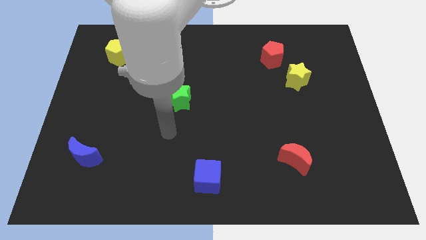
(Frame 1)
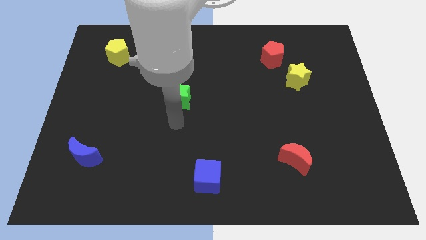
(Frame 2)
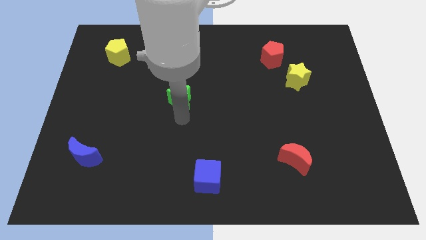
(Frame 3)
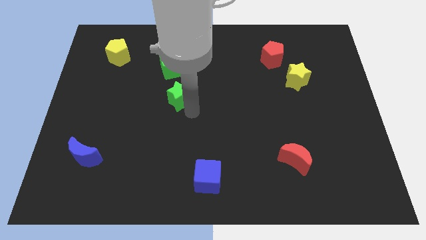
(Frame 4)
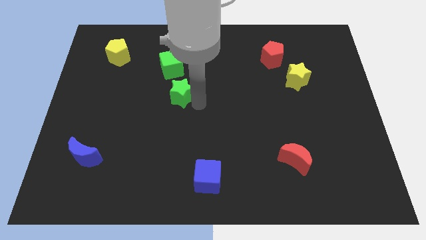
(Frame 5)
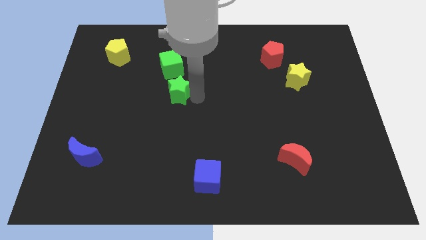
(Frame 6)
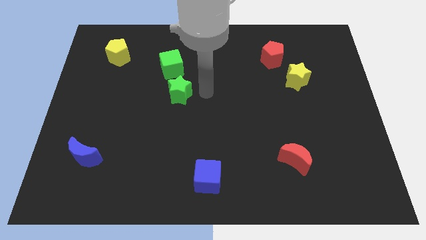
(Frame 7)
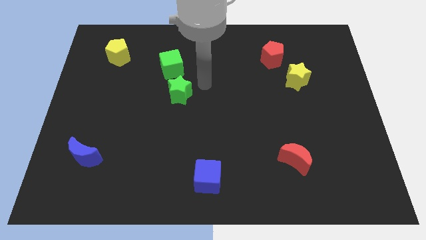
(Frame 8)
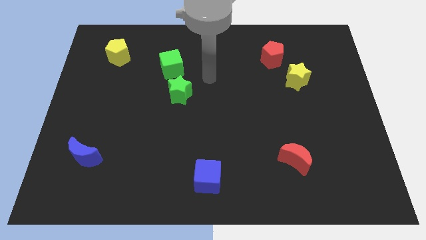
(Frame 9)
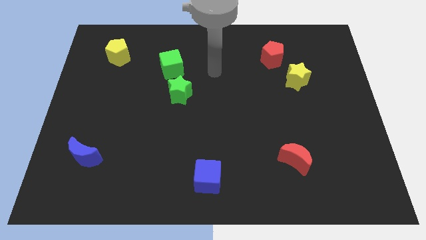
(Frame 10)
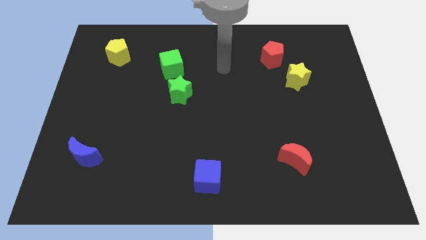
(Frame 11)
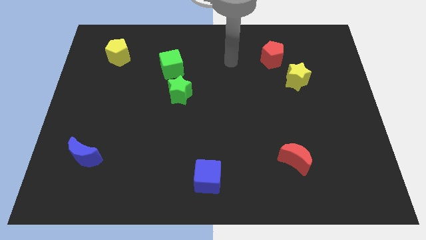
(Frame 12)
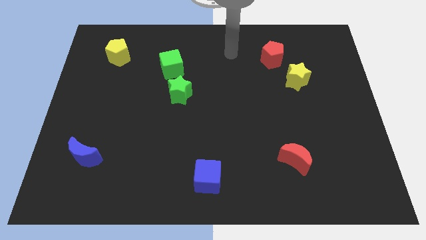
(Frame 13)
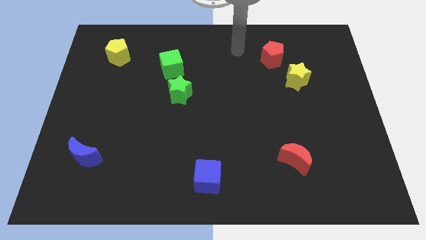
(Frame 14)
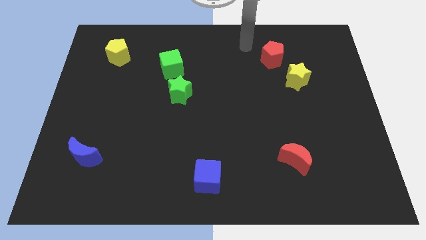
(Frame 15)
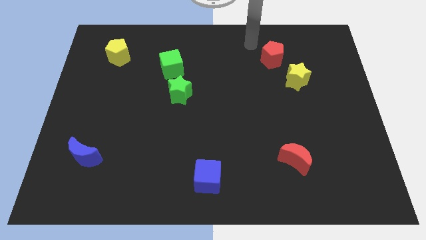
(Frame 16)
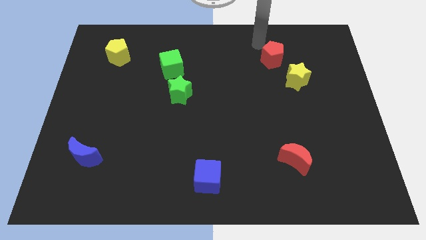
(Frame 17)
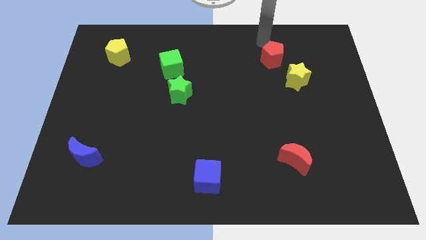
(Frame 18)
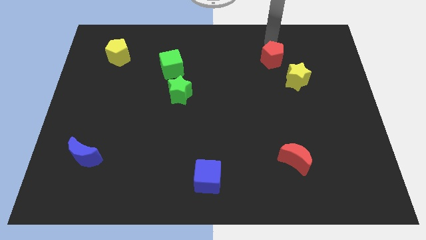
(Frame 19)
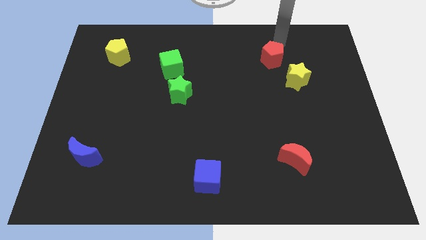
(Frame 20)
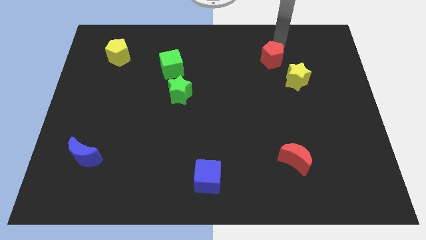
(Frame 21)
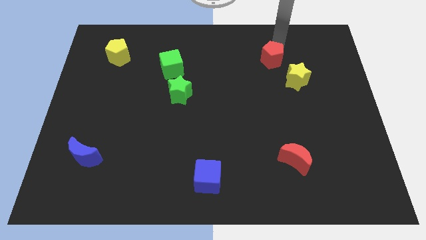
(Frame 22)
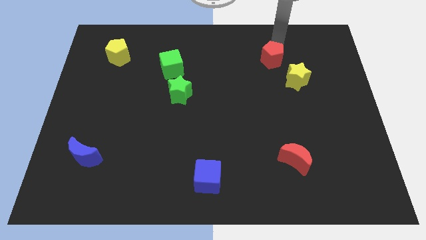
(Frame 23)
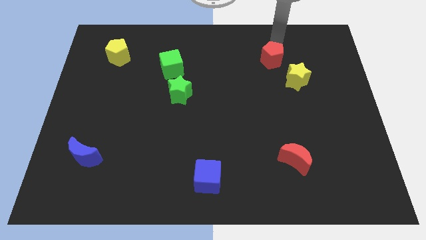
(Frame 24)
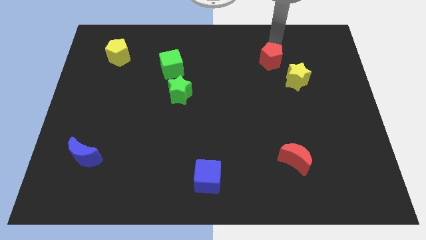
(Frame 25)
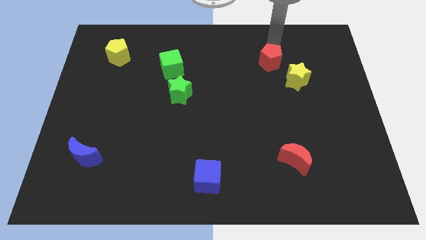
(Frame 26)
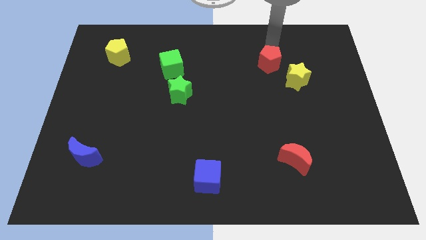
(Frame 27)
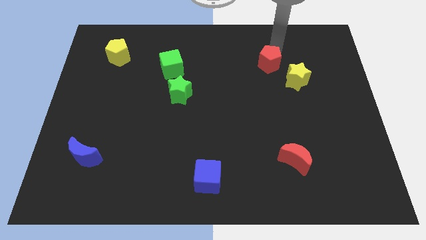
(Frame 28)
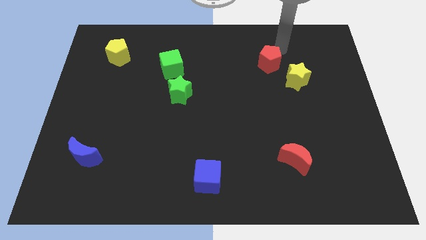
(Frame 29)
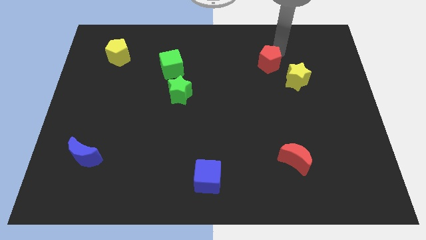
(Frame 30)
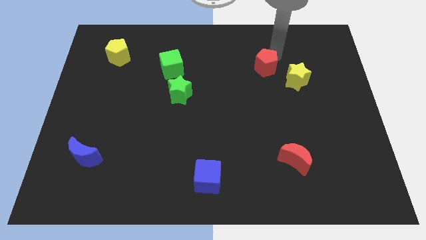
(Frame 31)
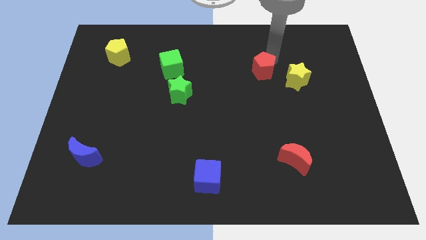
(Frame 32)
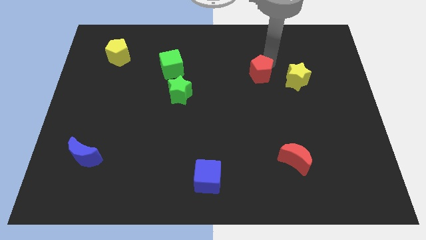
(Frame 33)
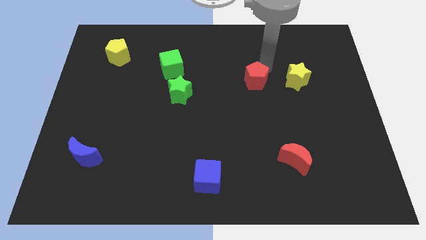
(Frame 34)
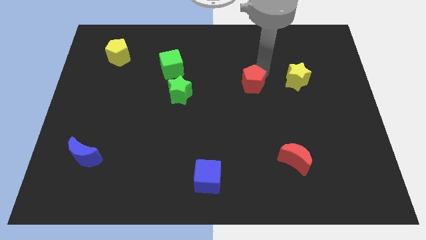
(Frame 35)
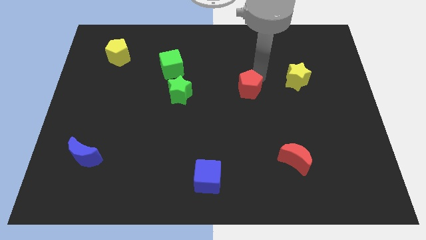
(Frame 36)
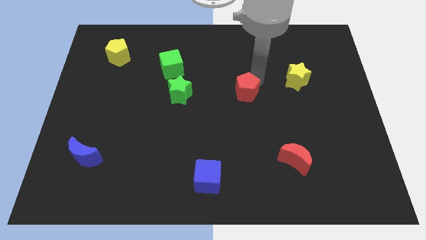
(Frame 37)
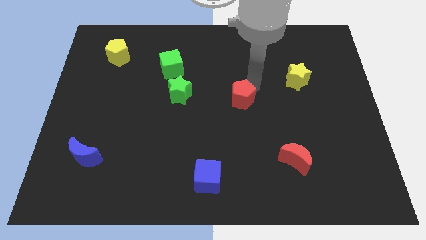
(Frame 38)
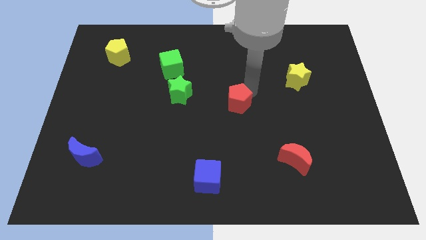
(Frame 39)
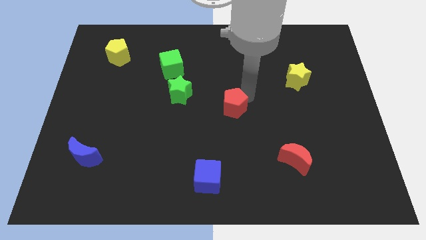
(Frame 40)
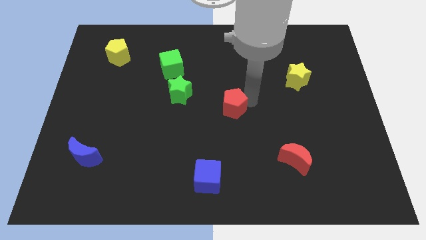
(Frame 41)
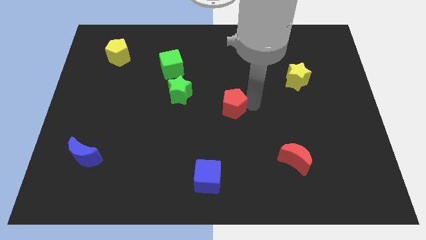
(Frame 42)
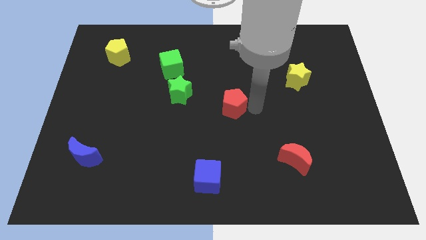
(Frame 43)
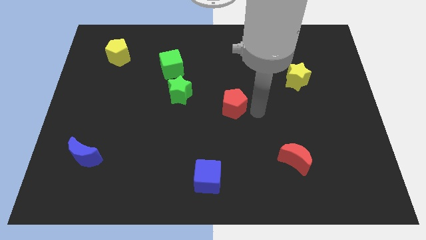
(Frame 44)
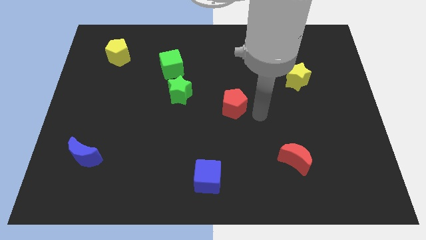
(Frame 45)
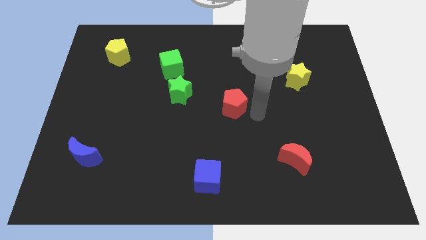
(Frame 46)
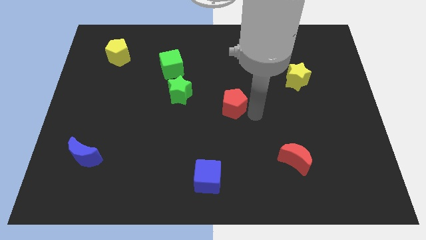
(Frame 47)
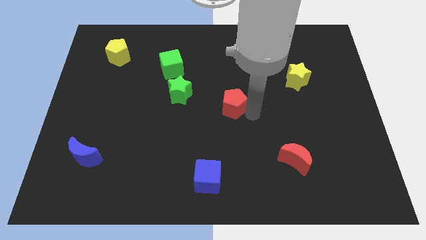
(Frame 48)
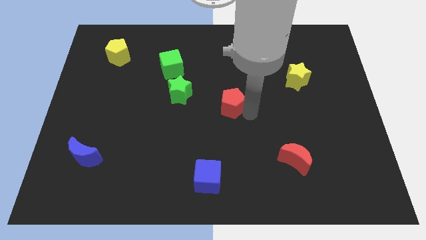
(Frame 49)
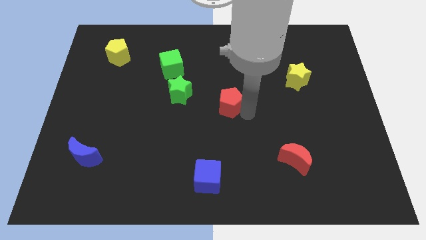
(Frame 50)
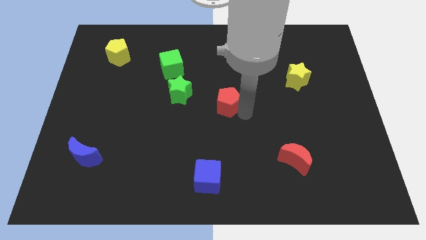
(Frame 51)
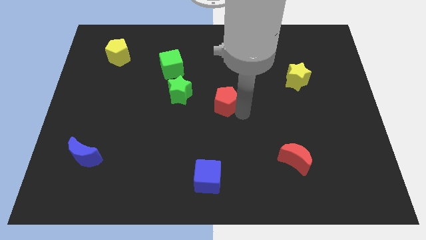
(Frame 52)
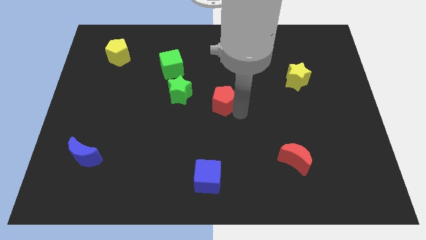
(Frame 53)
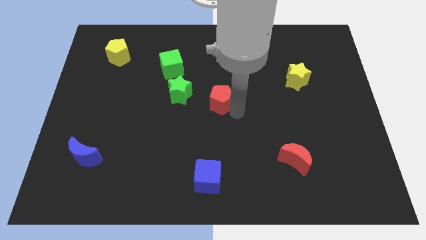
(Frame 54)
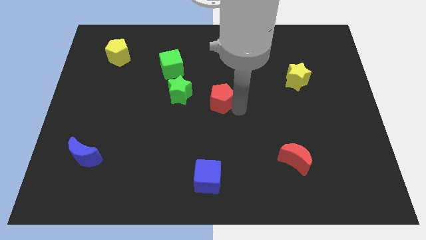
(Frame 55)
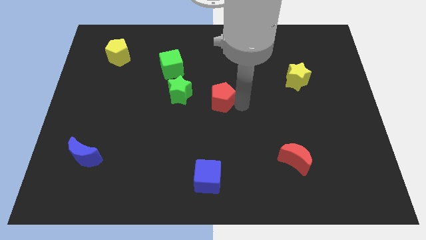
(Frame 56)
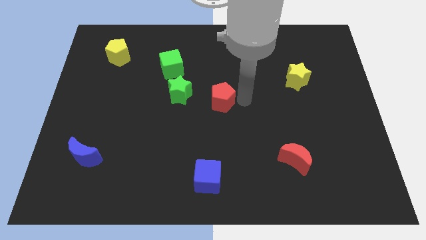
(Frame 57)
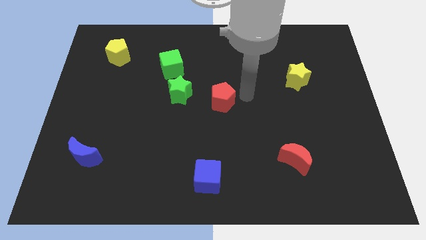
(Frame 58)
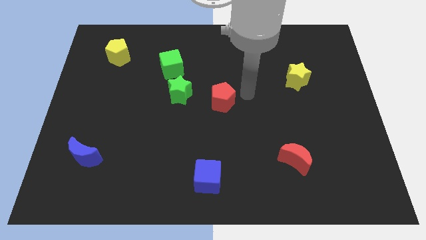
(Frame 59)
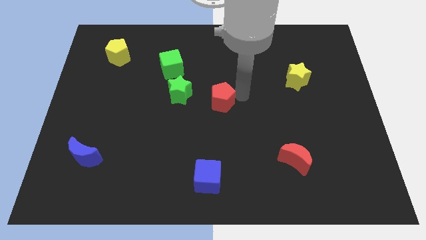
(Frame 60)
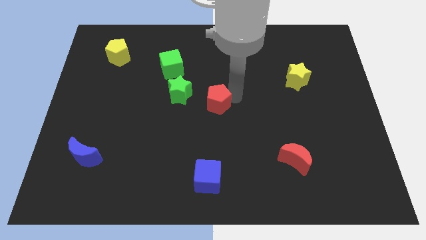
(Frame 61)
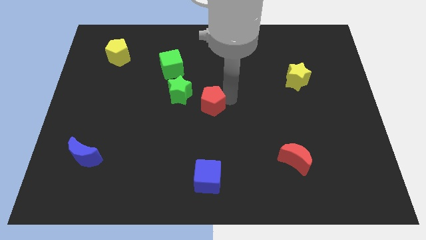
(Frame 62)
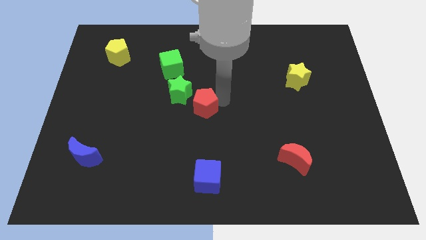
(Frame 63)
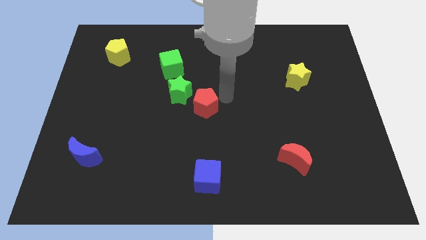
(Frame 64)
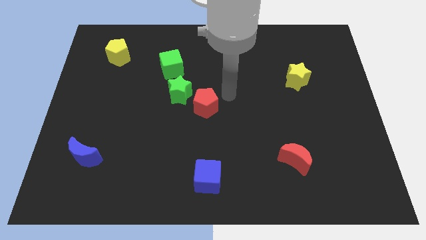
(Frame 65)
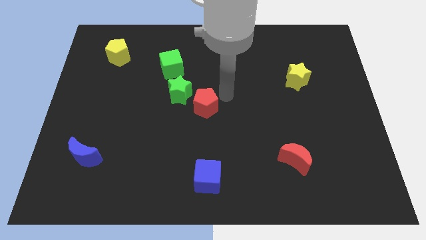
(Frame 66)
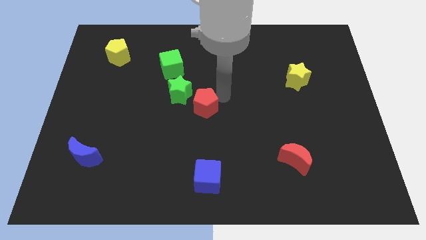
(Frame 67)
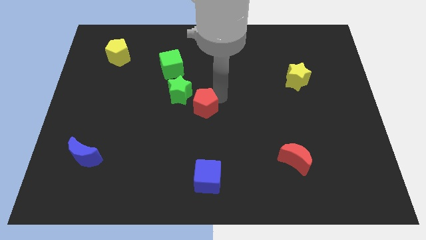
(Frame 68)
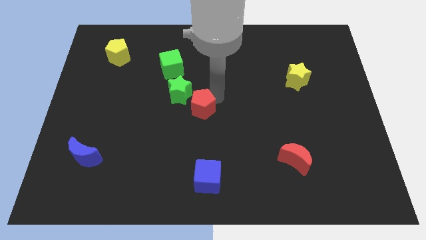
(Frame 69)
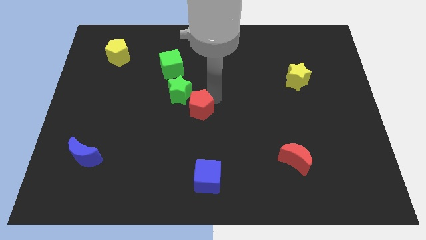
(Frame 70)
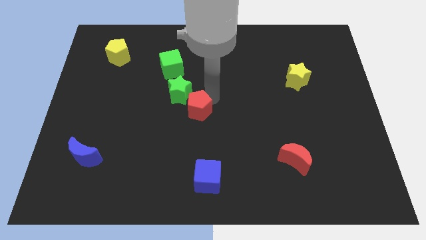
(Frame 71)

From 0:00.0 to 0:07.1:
slide the red pentagon to the bottom of the green star

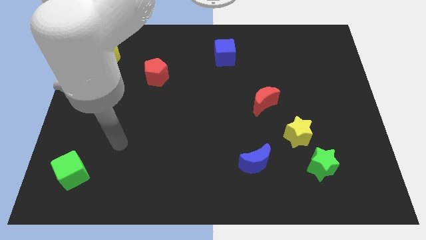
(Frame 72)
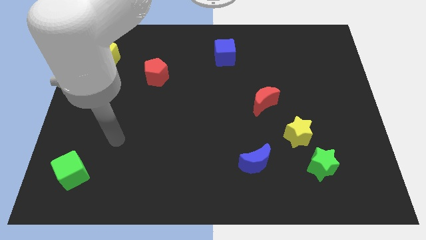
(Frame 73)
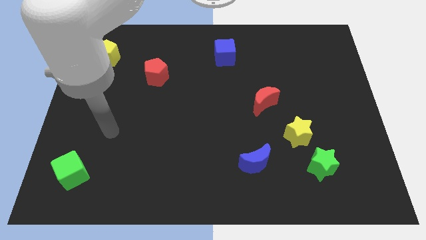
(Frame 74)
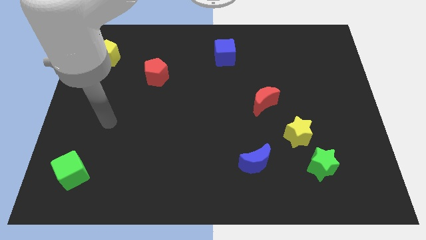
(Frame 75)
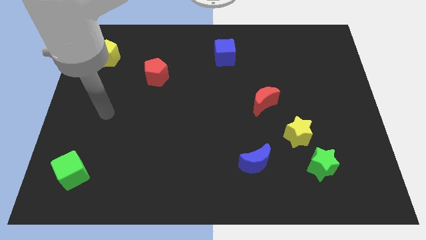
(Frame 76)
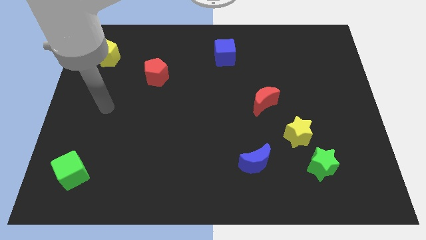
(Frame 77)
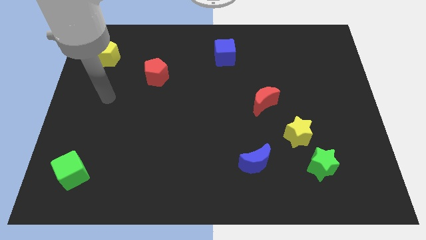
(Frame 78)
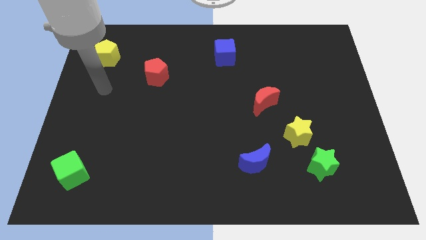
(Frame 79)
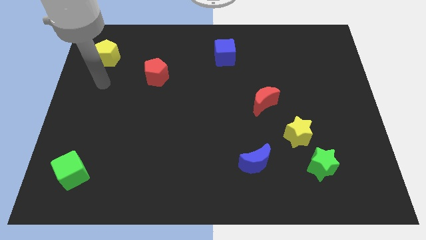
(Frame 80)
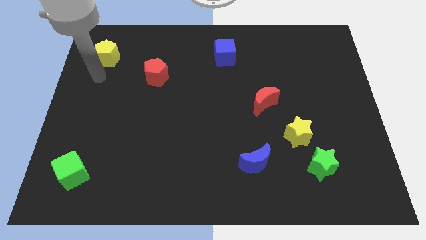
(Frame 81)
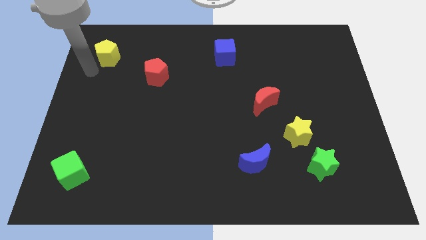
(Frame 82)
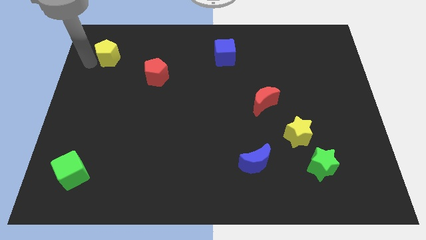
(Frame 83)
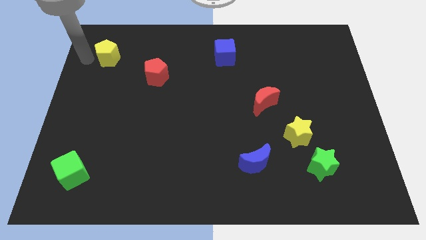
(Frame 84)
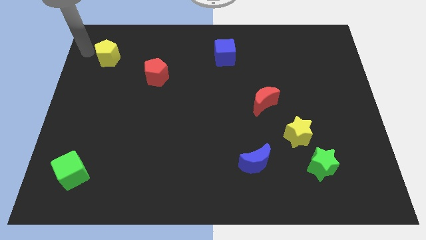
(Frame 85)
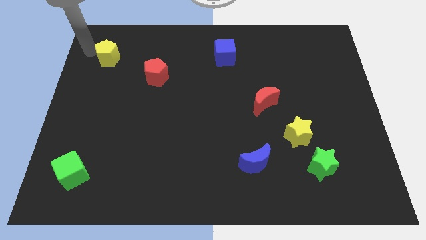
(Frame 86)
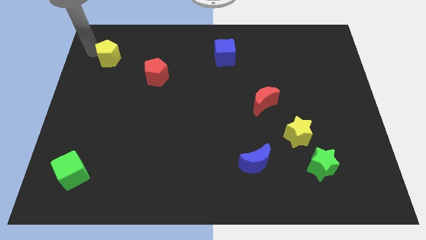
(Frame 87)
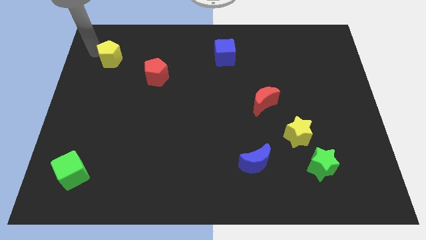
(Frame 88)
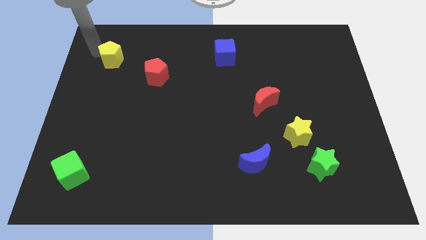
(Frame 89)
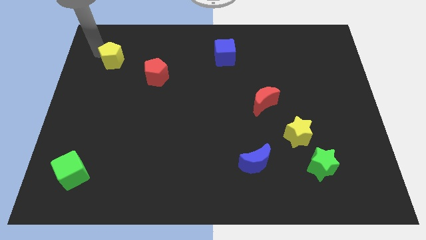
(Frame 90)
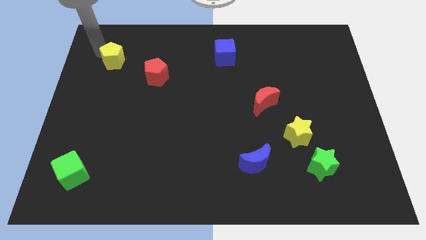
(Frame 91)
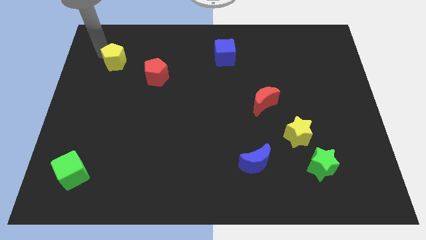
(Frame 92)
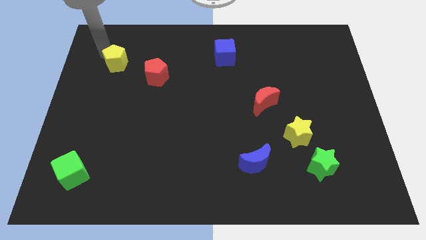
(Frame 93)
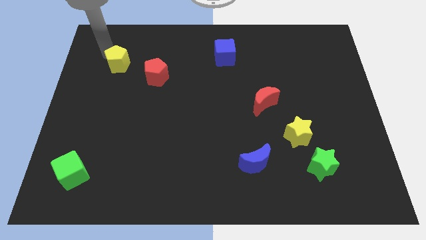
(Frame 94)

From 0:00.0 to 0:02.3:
put the yellow pentagon to the top left of the red pentagon
